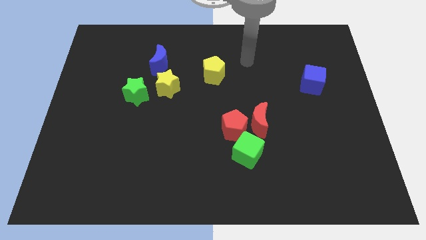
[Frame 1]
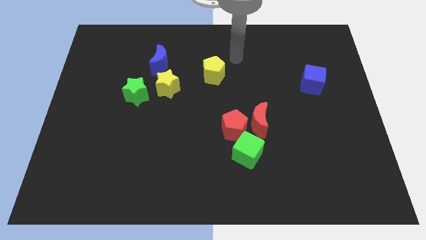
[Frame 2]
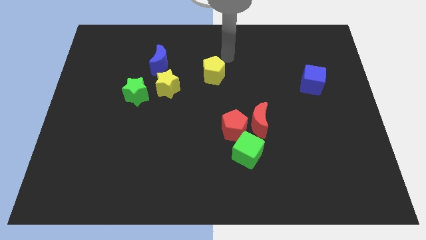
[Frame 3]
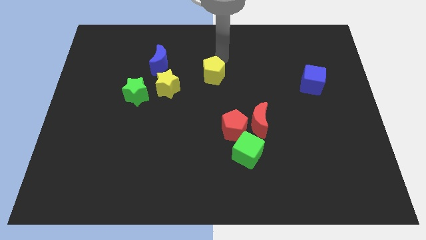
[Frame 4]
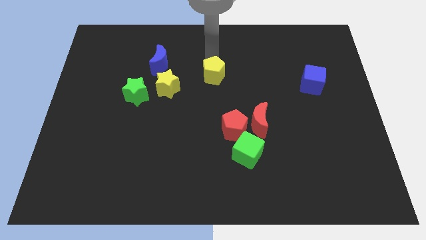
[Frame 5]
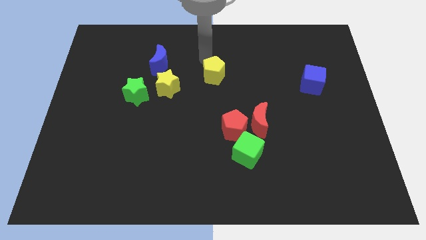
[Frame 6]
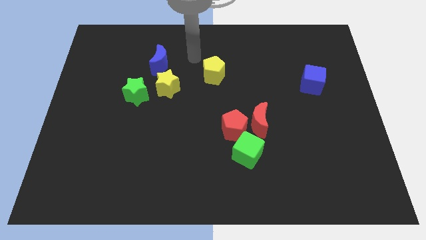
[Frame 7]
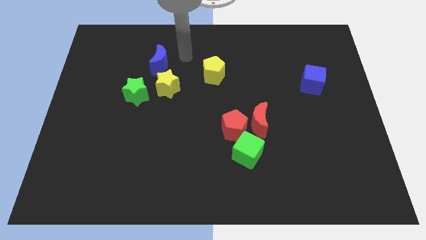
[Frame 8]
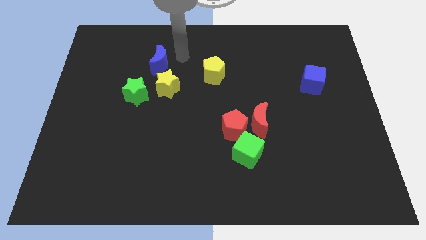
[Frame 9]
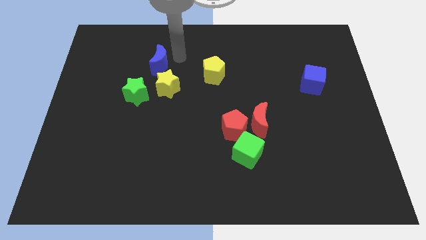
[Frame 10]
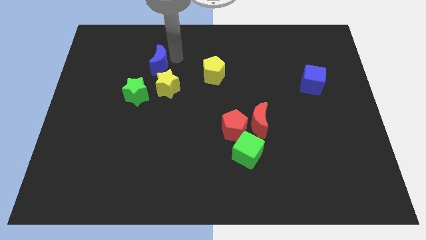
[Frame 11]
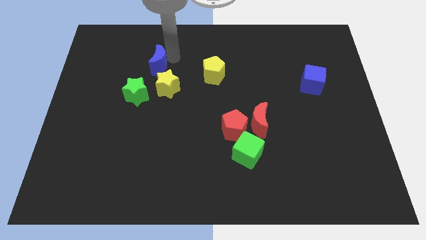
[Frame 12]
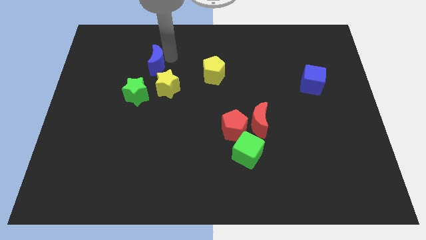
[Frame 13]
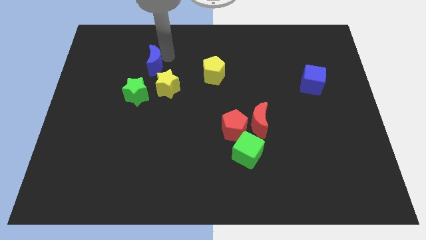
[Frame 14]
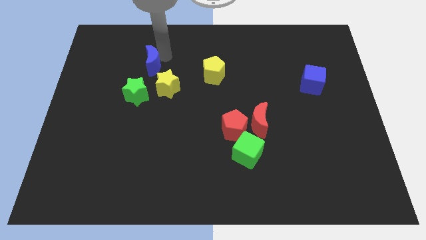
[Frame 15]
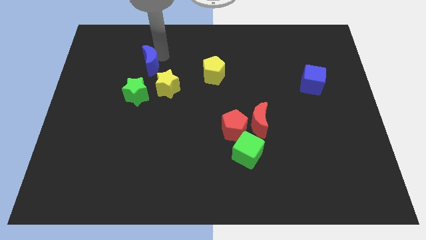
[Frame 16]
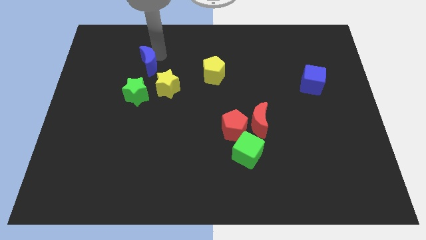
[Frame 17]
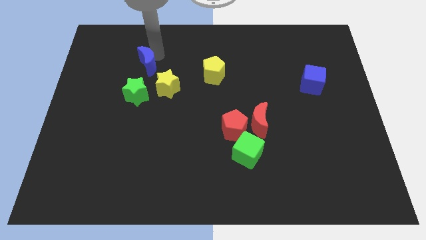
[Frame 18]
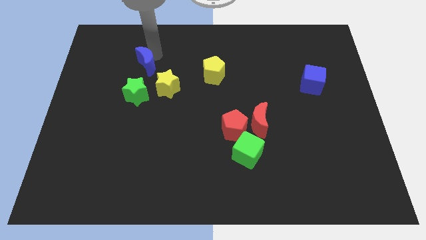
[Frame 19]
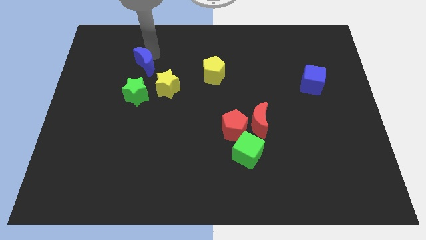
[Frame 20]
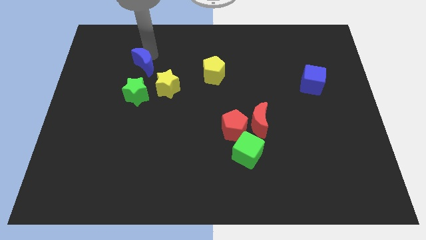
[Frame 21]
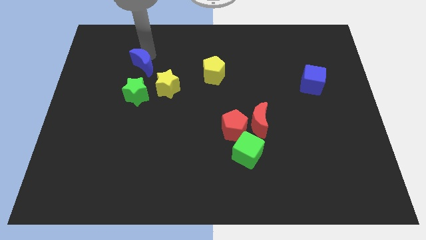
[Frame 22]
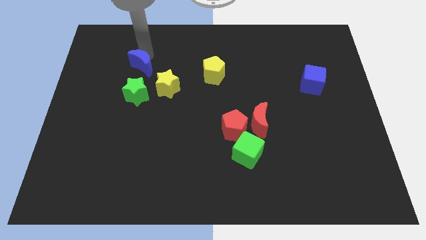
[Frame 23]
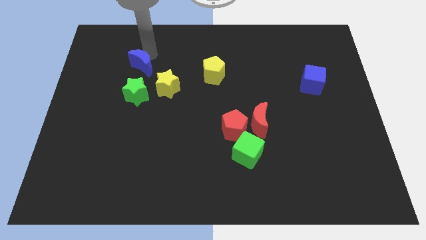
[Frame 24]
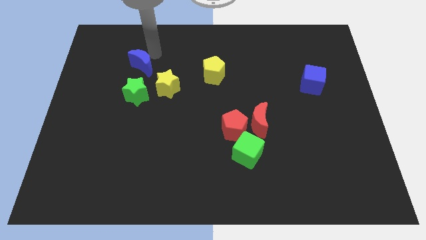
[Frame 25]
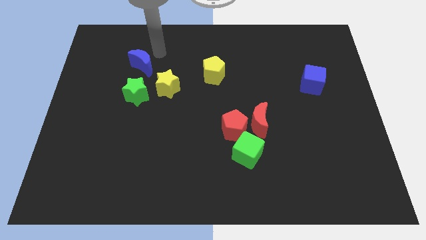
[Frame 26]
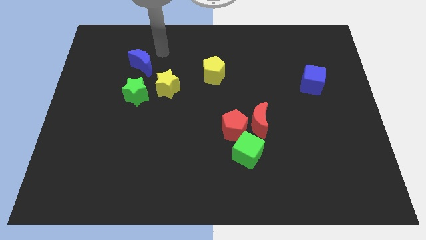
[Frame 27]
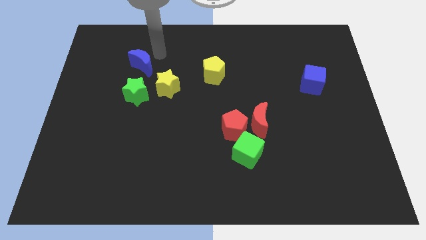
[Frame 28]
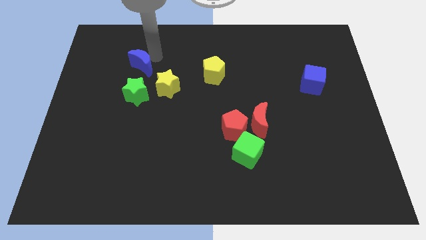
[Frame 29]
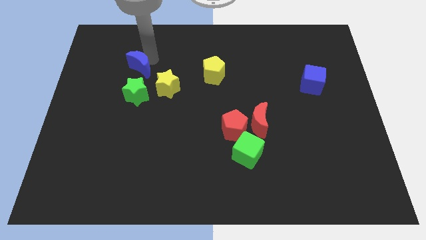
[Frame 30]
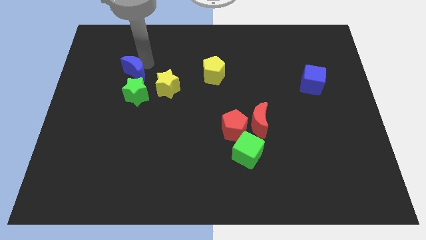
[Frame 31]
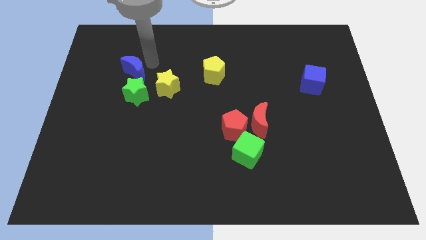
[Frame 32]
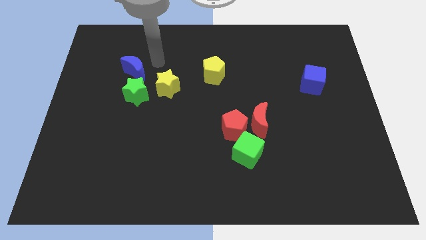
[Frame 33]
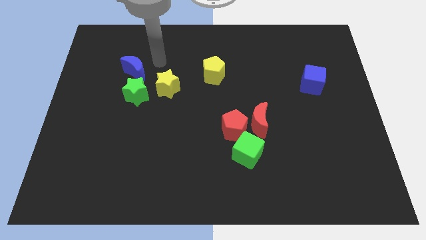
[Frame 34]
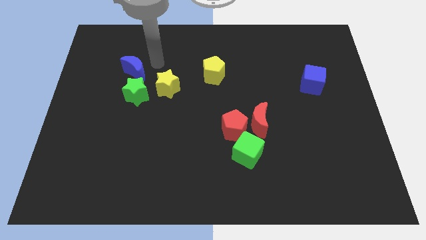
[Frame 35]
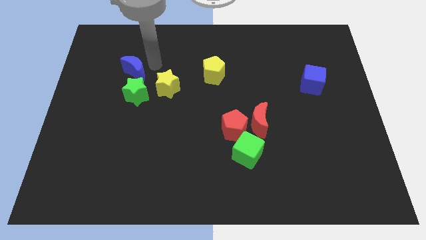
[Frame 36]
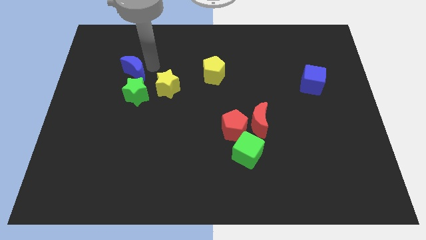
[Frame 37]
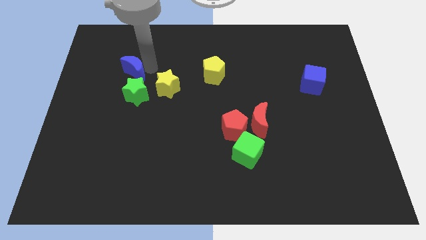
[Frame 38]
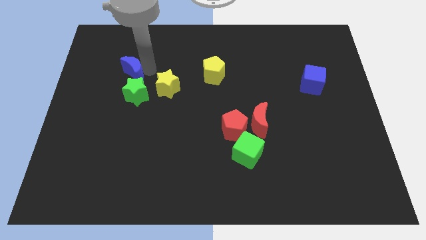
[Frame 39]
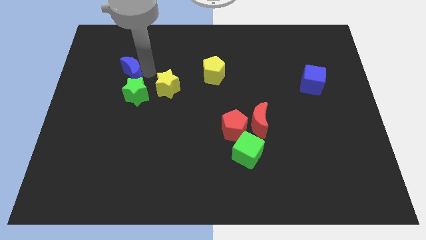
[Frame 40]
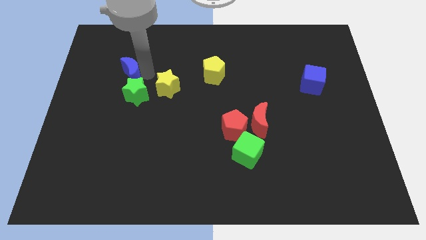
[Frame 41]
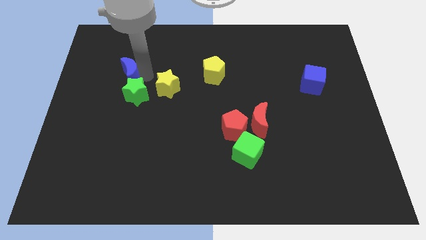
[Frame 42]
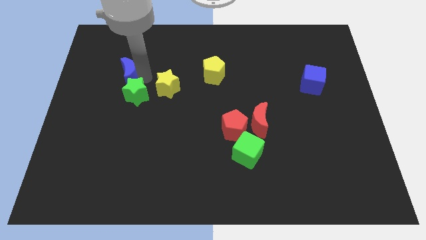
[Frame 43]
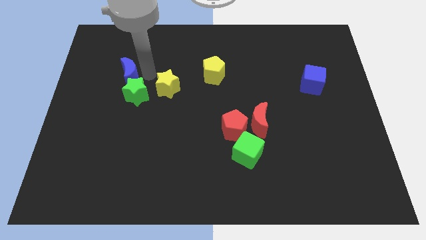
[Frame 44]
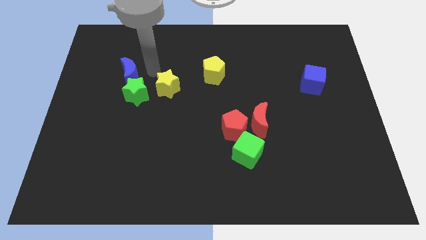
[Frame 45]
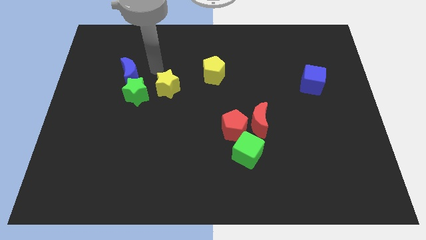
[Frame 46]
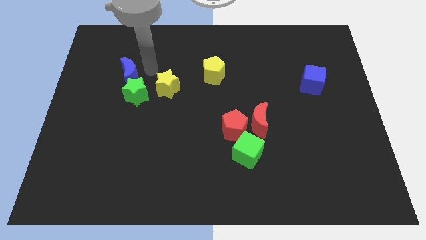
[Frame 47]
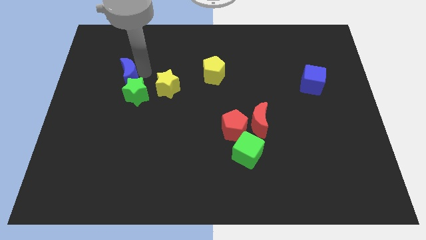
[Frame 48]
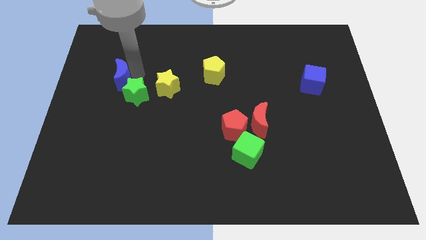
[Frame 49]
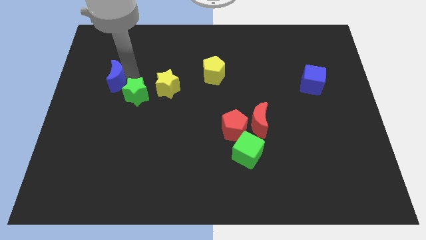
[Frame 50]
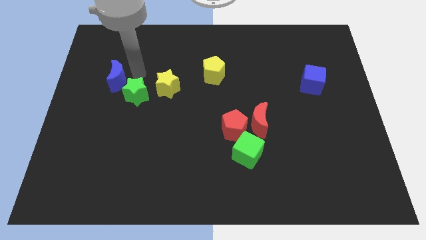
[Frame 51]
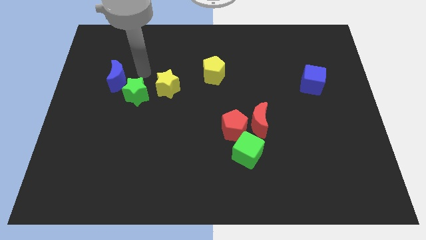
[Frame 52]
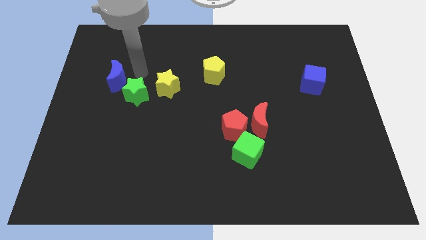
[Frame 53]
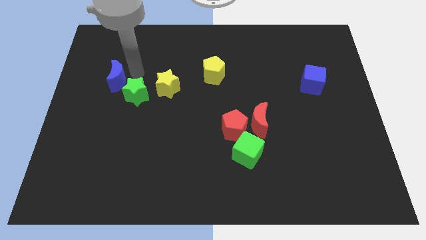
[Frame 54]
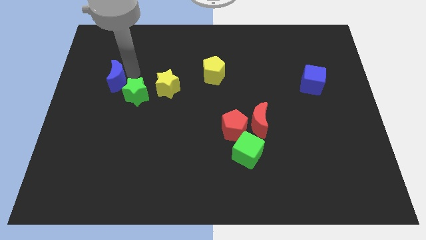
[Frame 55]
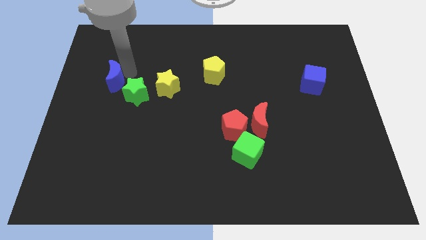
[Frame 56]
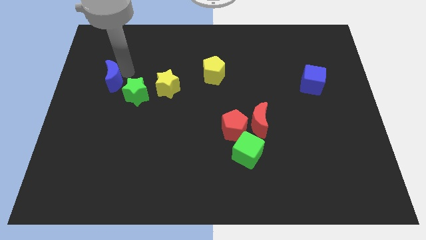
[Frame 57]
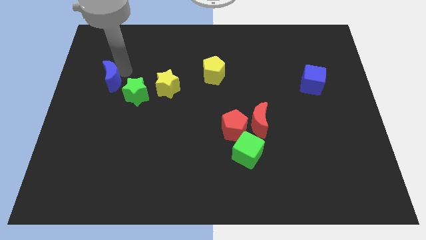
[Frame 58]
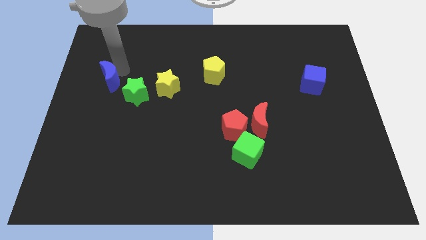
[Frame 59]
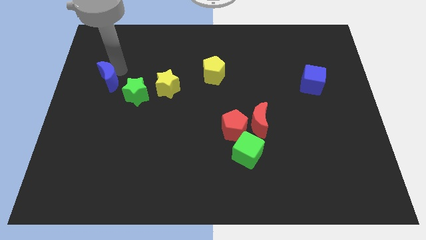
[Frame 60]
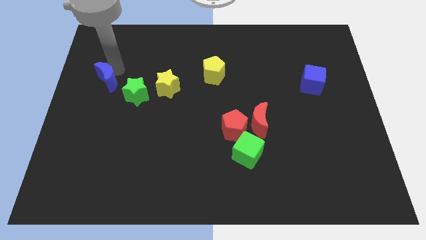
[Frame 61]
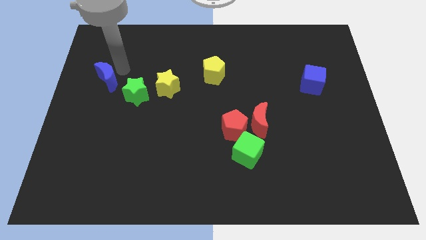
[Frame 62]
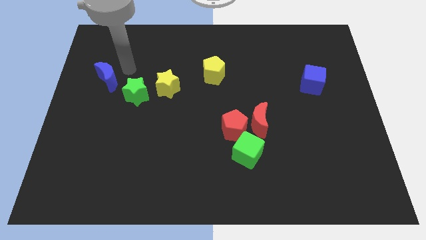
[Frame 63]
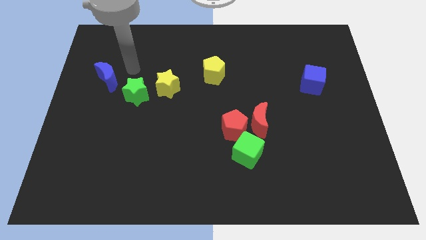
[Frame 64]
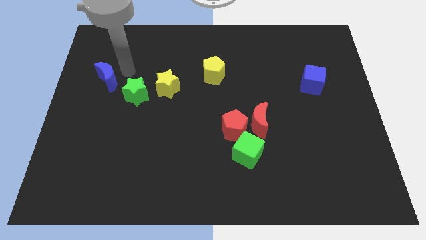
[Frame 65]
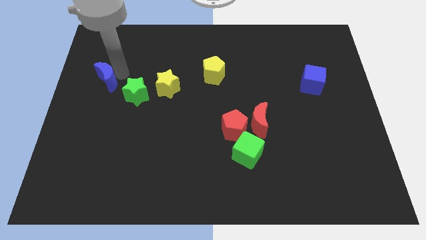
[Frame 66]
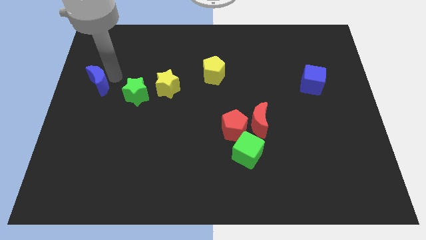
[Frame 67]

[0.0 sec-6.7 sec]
move the blue moon to the center left
